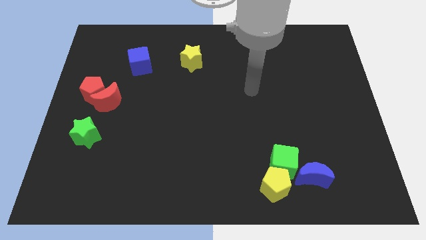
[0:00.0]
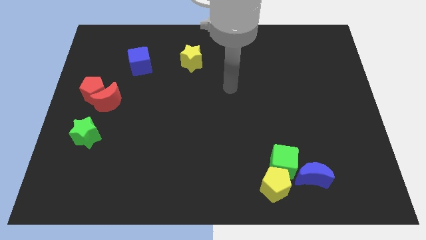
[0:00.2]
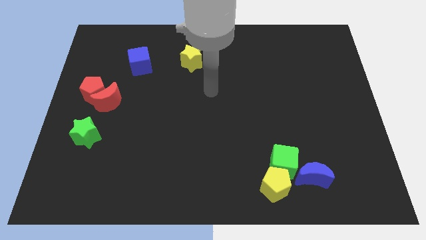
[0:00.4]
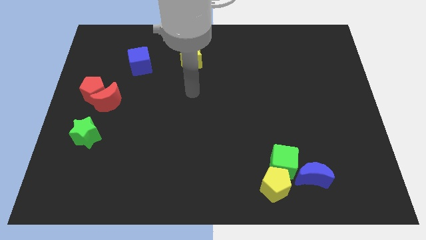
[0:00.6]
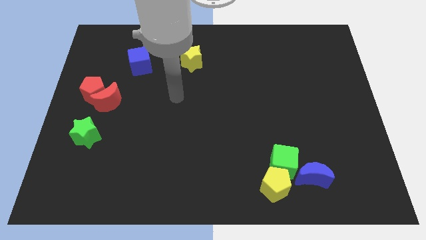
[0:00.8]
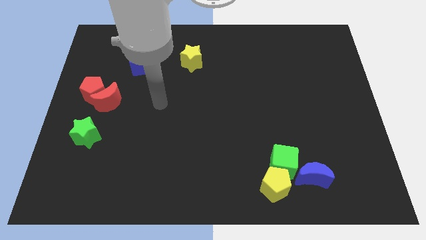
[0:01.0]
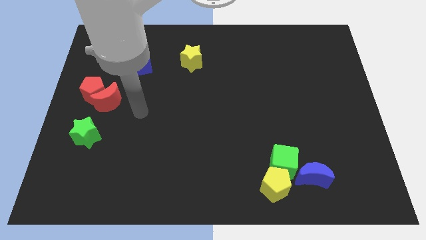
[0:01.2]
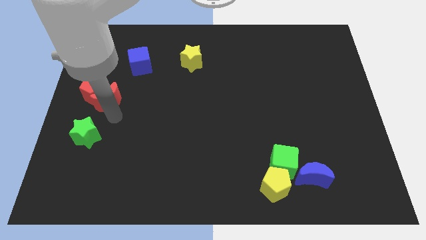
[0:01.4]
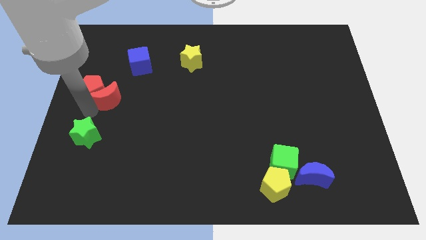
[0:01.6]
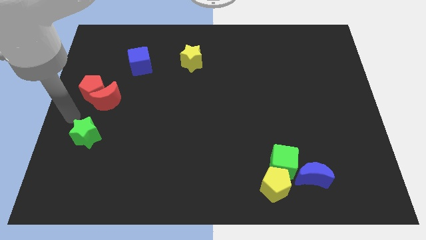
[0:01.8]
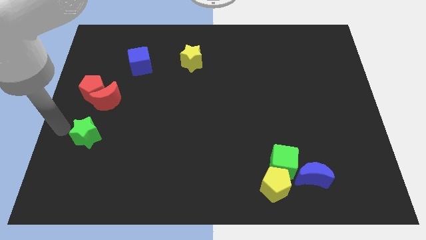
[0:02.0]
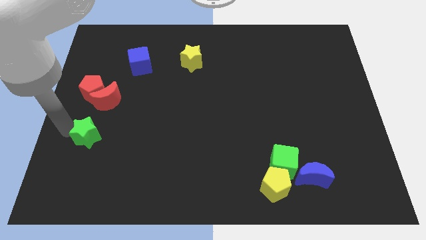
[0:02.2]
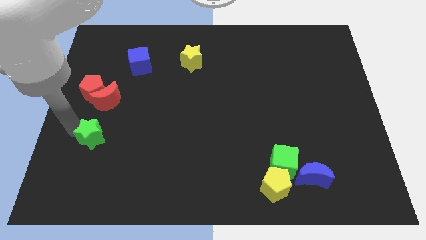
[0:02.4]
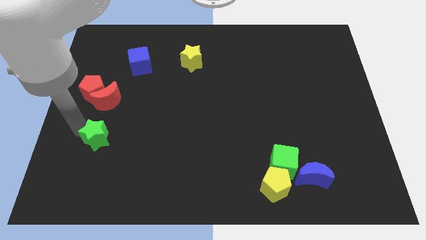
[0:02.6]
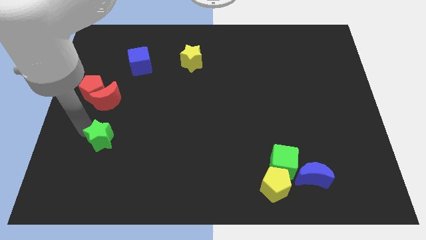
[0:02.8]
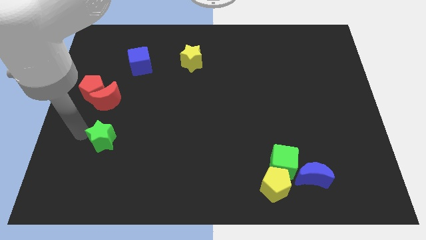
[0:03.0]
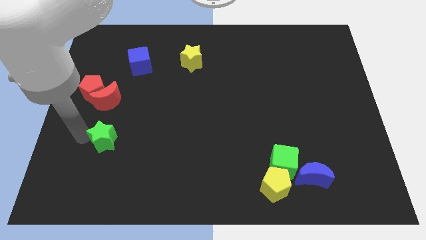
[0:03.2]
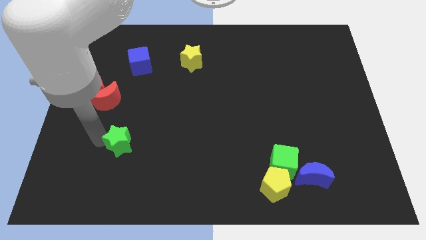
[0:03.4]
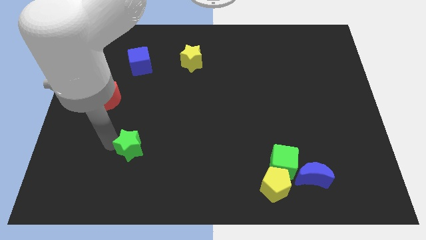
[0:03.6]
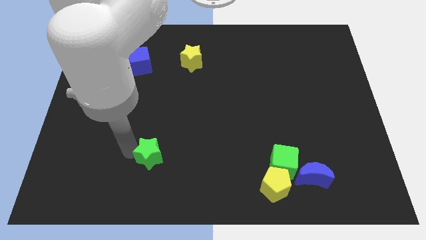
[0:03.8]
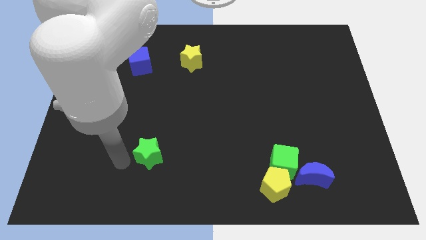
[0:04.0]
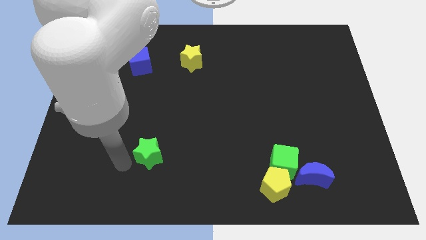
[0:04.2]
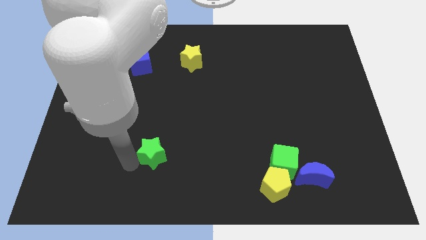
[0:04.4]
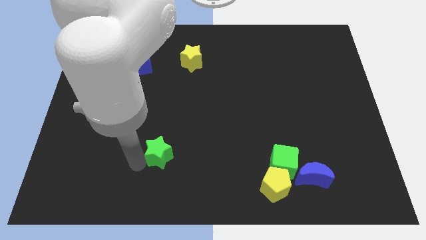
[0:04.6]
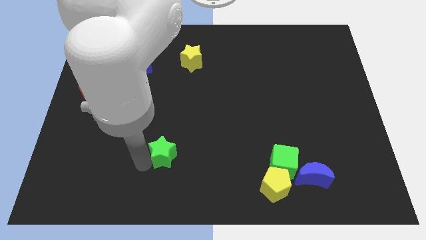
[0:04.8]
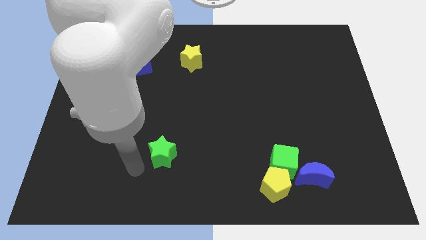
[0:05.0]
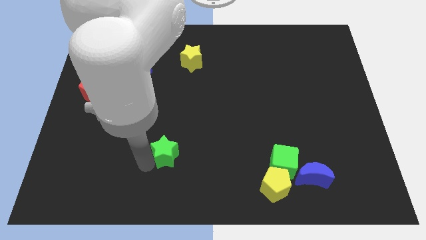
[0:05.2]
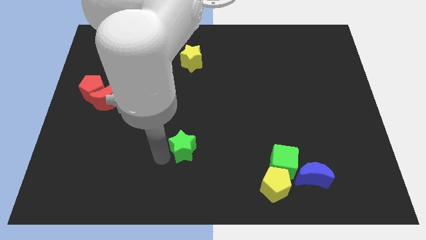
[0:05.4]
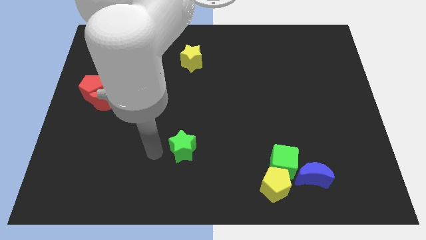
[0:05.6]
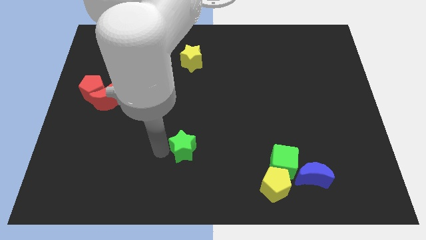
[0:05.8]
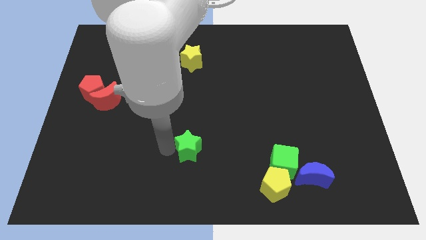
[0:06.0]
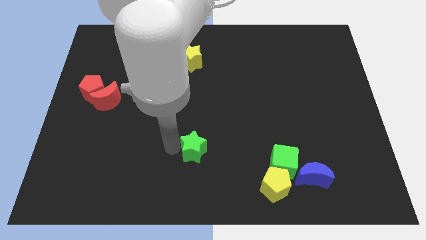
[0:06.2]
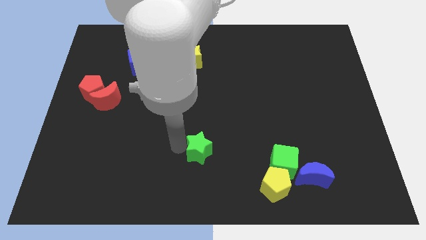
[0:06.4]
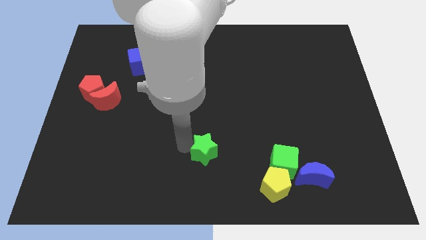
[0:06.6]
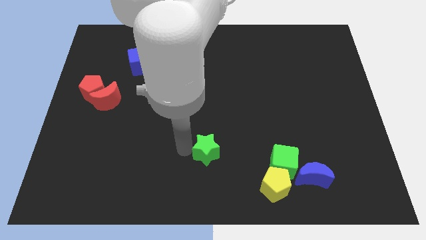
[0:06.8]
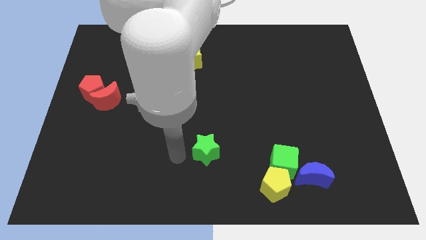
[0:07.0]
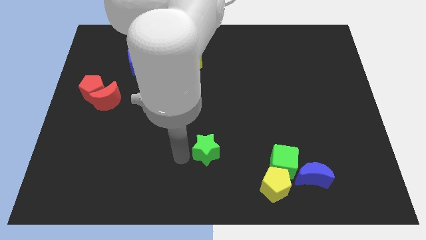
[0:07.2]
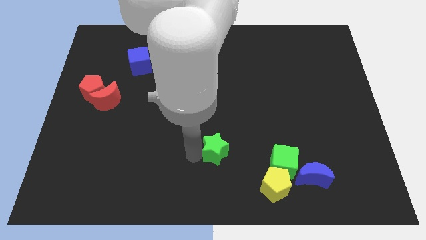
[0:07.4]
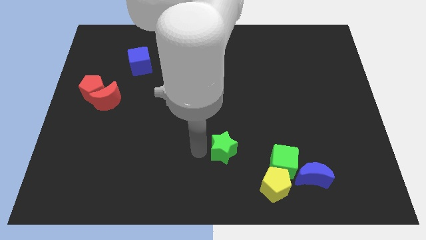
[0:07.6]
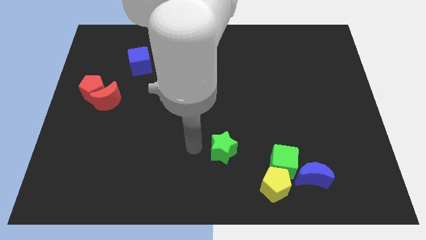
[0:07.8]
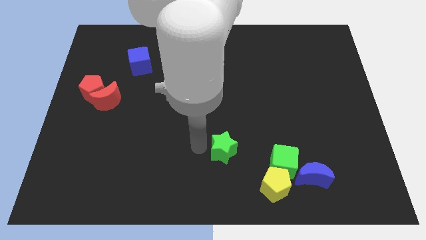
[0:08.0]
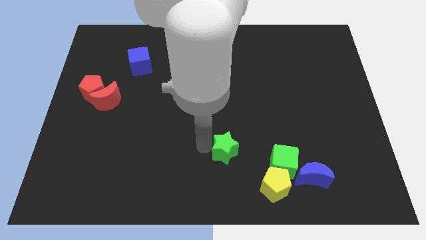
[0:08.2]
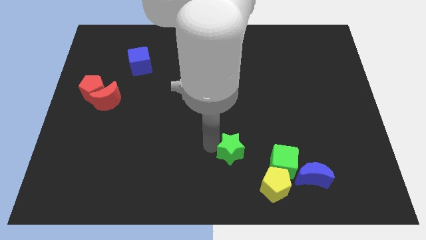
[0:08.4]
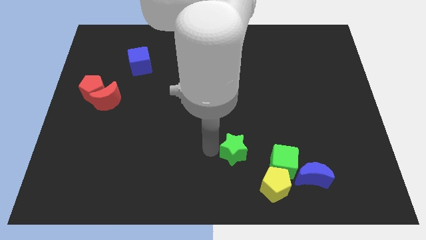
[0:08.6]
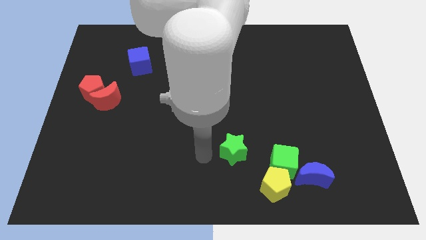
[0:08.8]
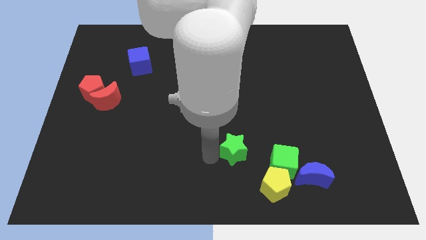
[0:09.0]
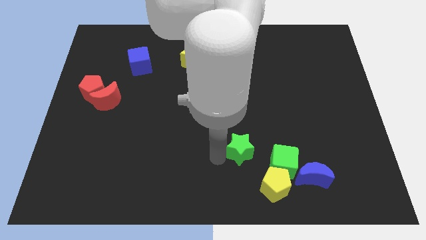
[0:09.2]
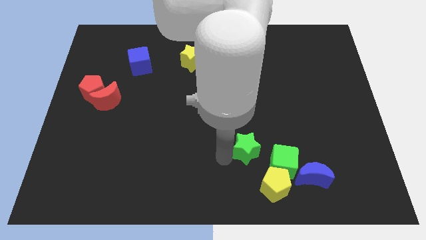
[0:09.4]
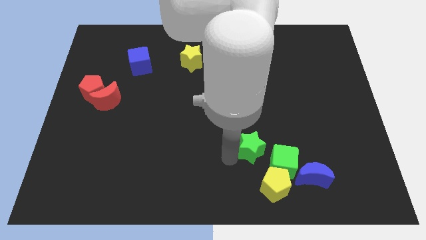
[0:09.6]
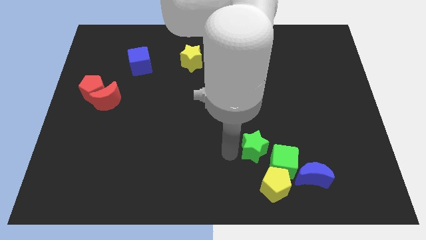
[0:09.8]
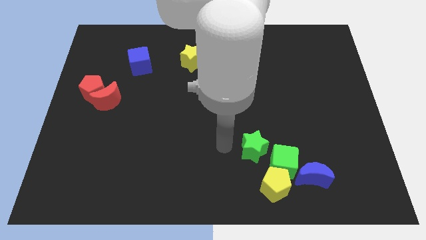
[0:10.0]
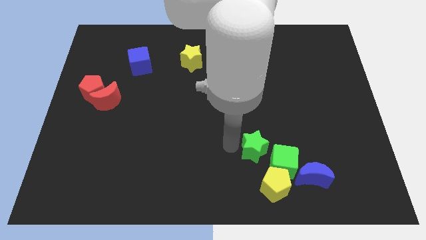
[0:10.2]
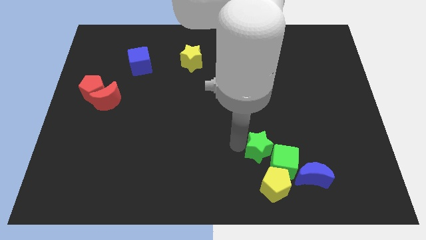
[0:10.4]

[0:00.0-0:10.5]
slide the green star diagonally up and to the left of the blue moon

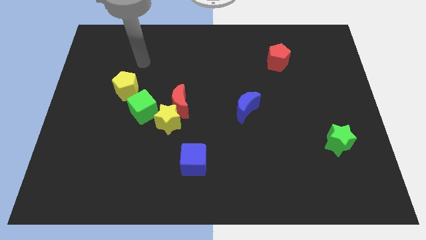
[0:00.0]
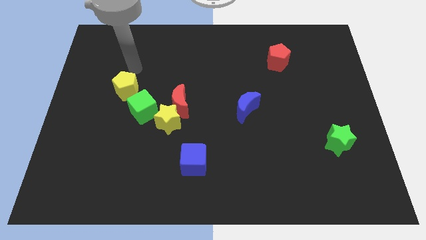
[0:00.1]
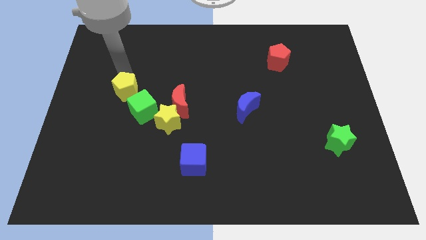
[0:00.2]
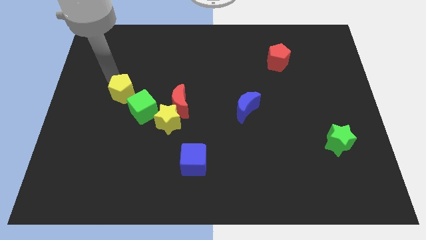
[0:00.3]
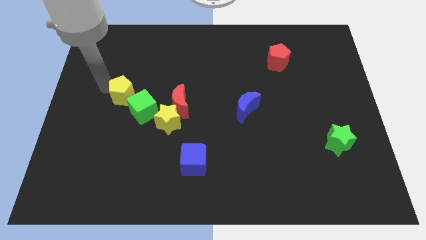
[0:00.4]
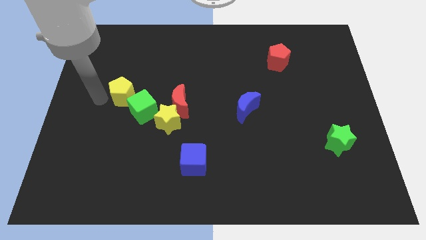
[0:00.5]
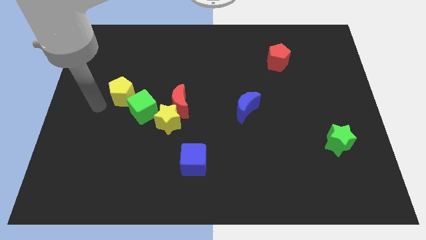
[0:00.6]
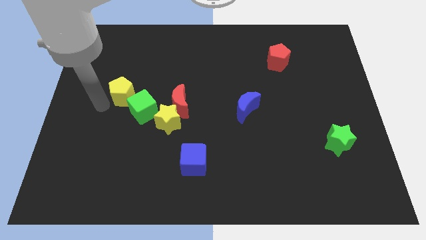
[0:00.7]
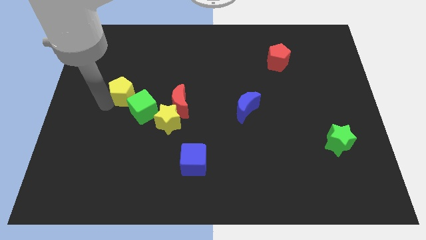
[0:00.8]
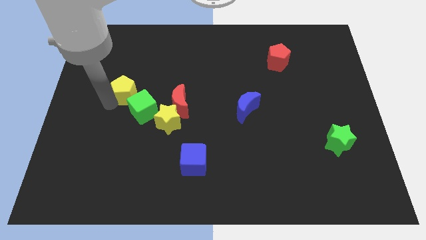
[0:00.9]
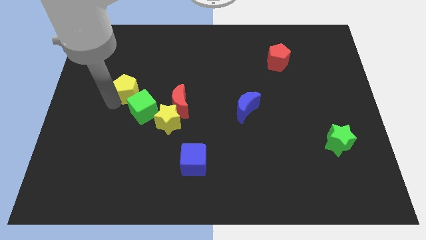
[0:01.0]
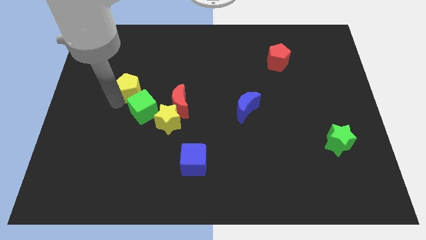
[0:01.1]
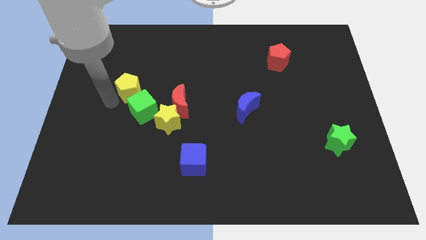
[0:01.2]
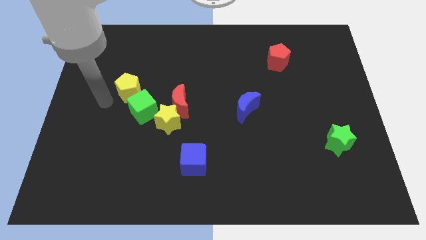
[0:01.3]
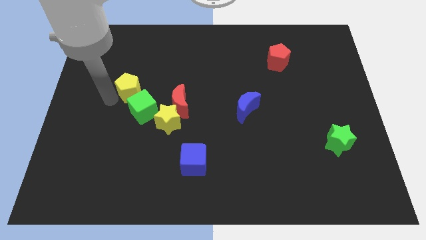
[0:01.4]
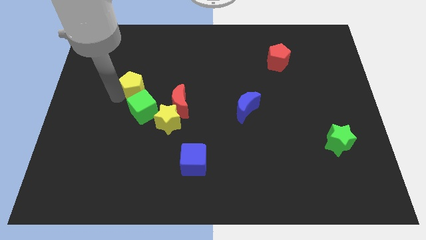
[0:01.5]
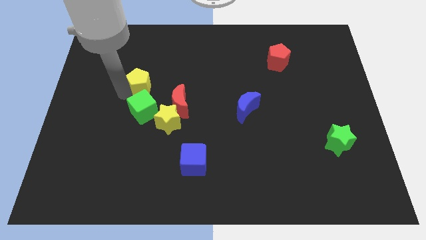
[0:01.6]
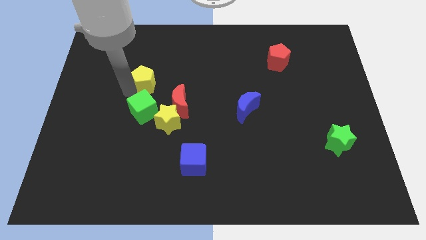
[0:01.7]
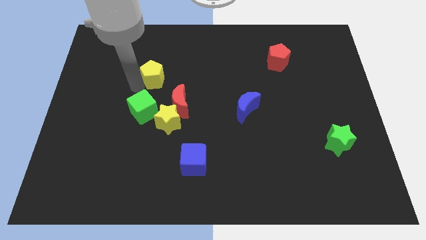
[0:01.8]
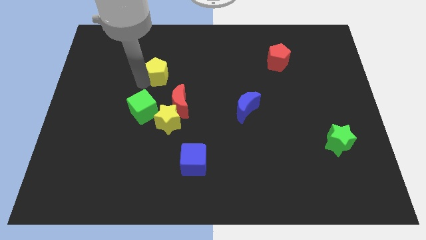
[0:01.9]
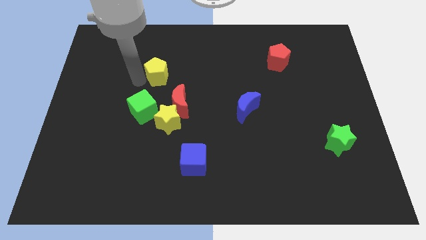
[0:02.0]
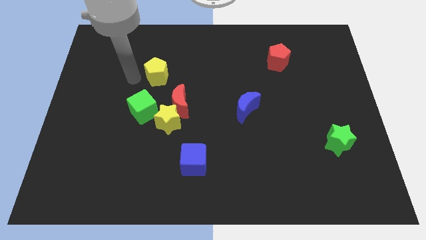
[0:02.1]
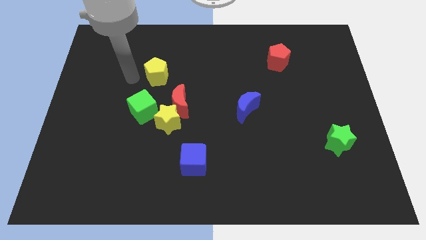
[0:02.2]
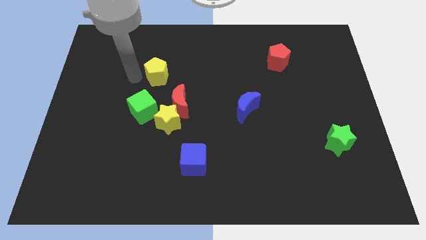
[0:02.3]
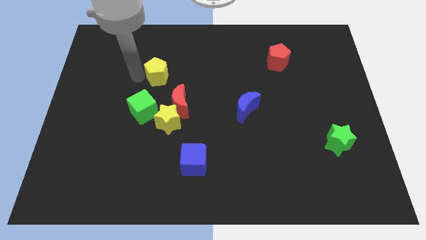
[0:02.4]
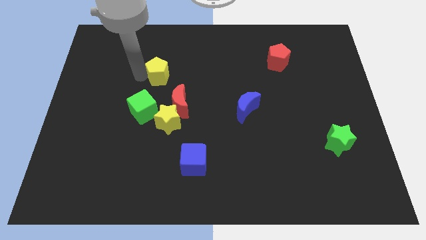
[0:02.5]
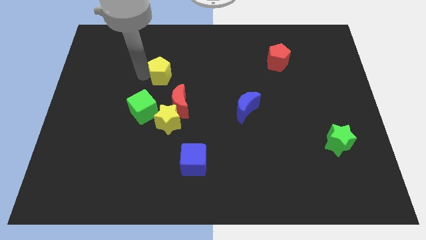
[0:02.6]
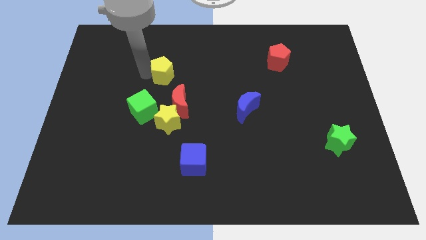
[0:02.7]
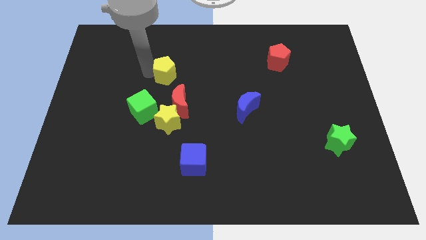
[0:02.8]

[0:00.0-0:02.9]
push the yellow pentagon to the top of the red moon
